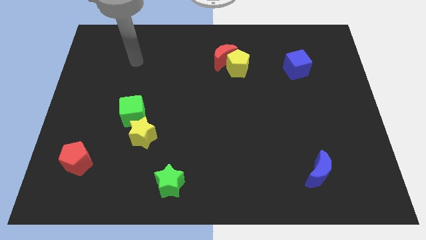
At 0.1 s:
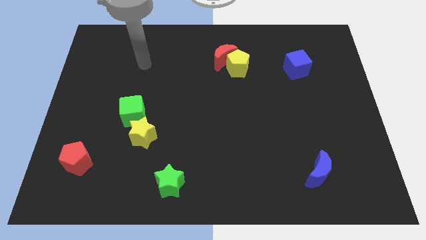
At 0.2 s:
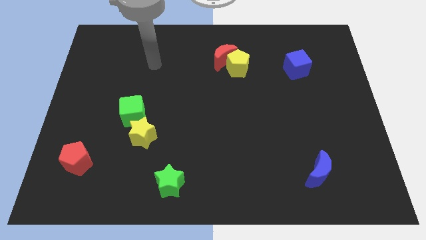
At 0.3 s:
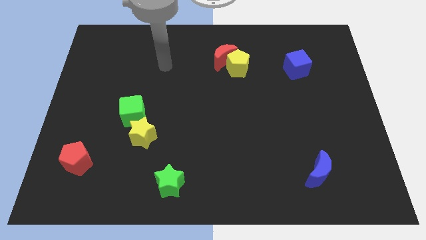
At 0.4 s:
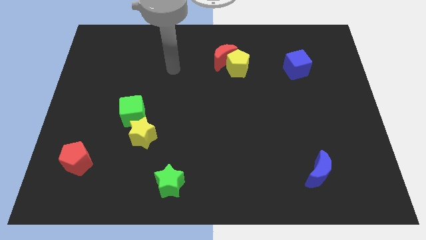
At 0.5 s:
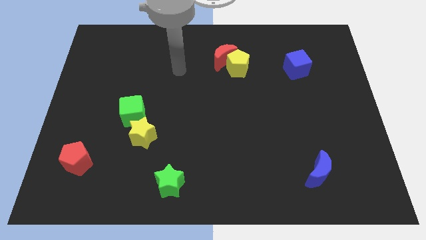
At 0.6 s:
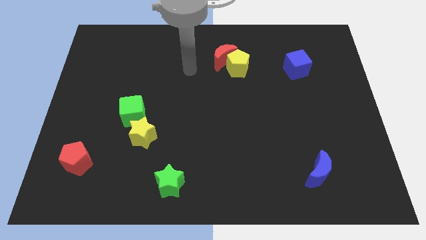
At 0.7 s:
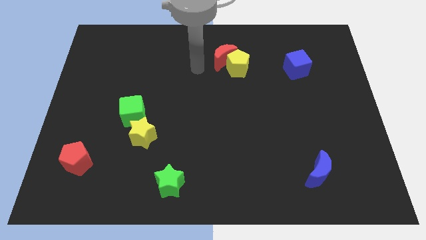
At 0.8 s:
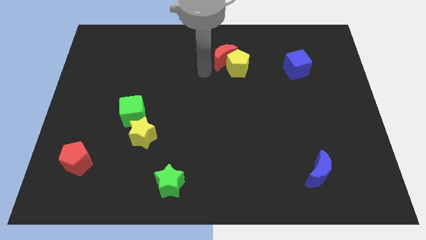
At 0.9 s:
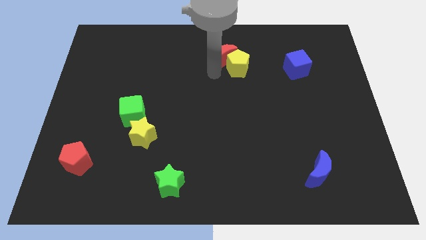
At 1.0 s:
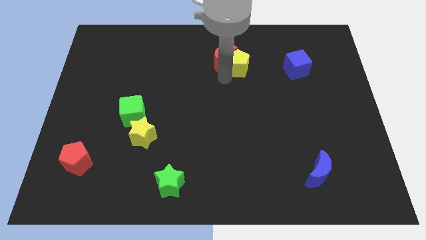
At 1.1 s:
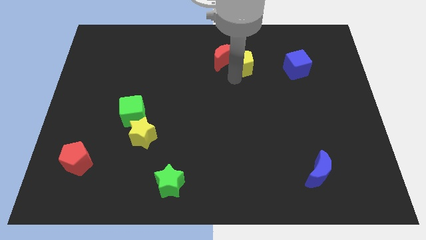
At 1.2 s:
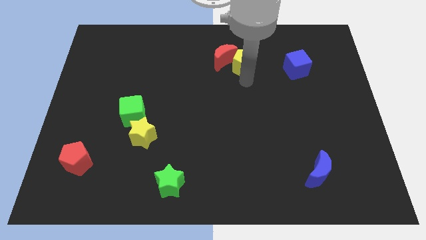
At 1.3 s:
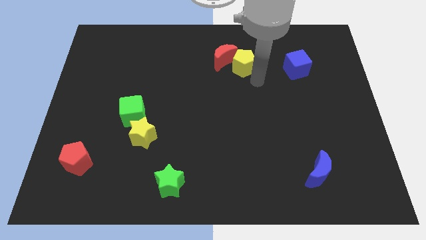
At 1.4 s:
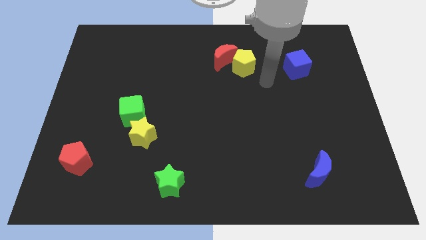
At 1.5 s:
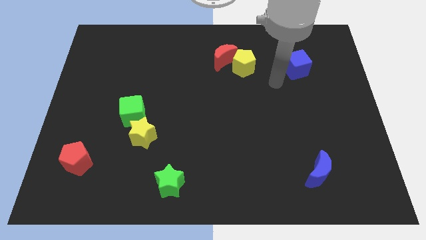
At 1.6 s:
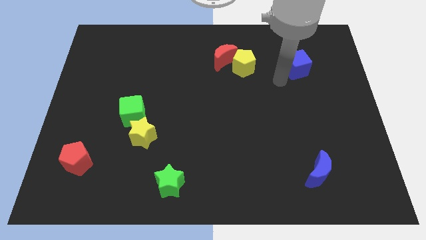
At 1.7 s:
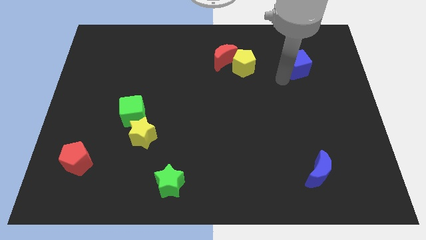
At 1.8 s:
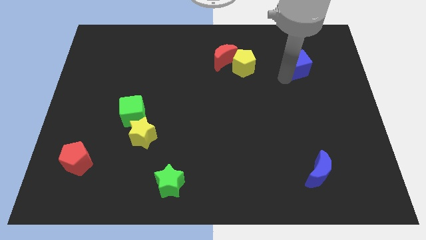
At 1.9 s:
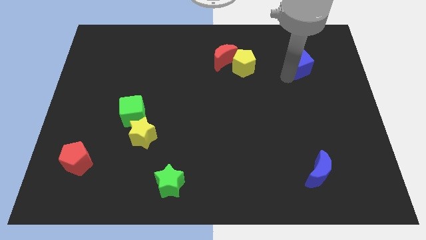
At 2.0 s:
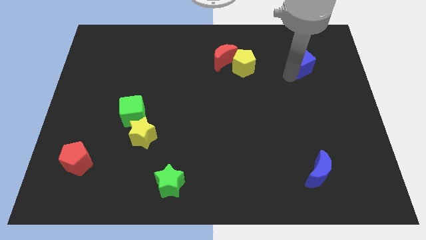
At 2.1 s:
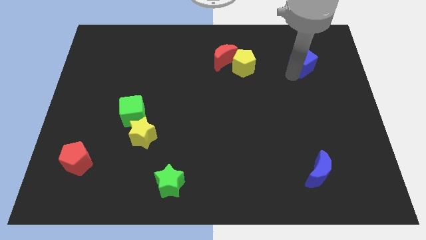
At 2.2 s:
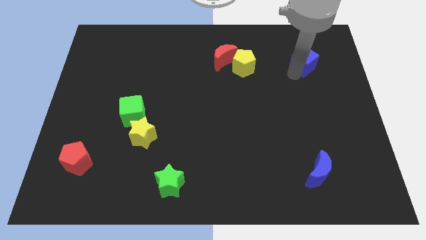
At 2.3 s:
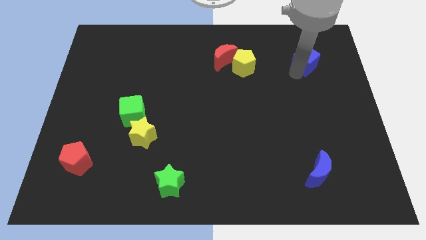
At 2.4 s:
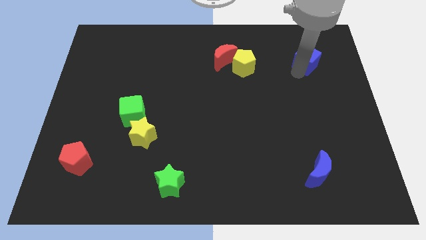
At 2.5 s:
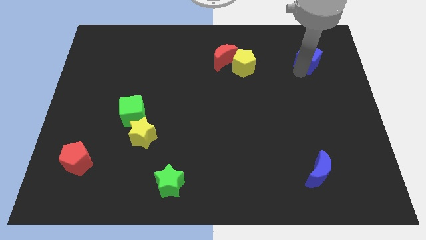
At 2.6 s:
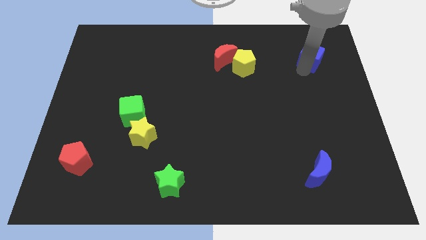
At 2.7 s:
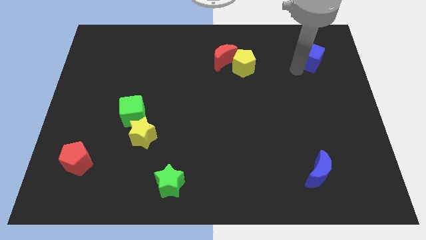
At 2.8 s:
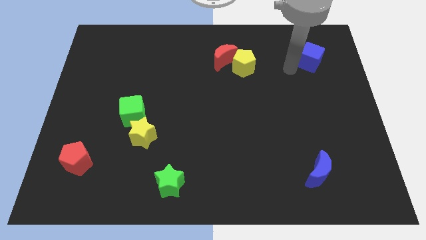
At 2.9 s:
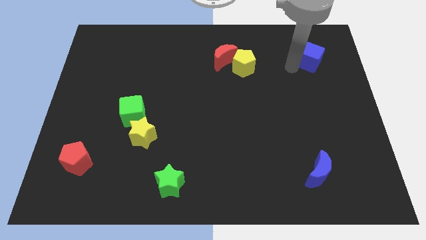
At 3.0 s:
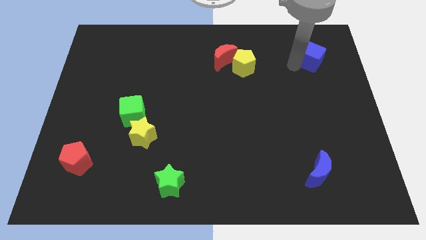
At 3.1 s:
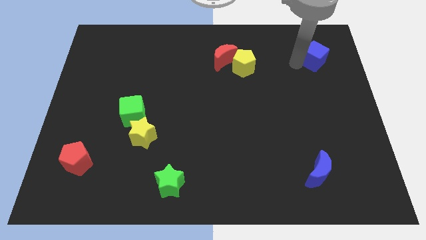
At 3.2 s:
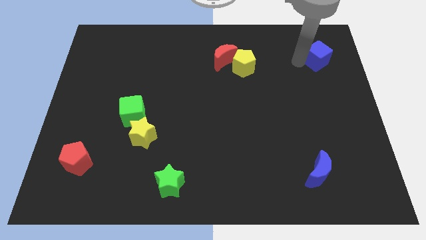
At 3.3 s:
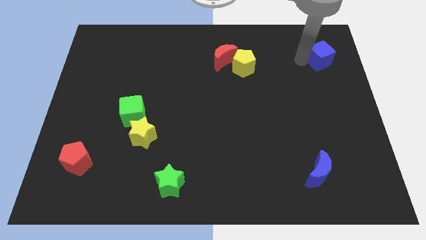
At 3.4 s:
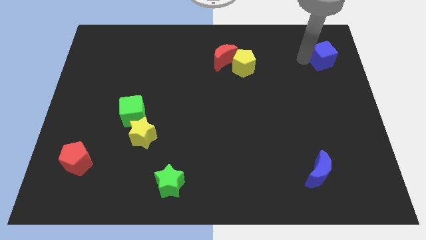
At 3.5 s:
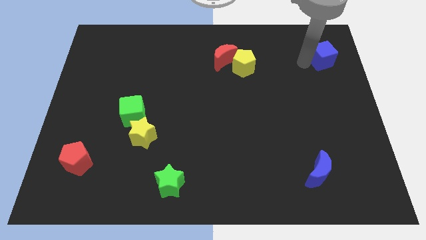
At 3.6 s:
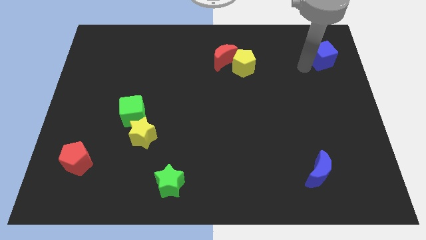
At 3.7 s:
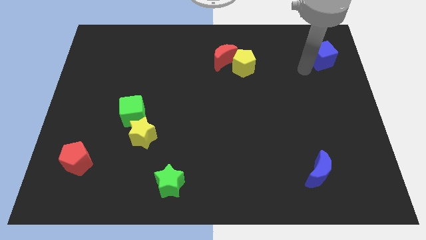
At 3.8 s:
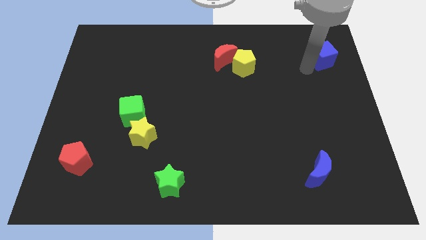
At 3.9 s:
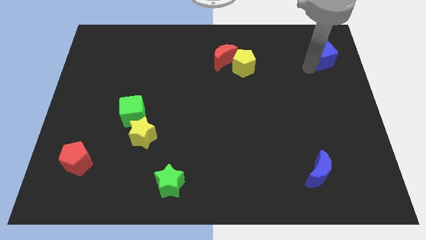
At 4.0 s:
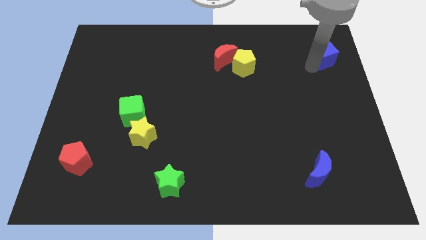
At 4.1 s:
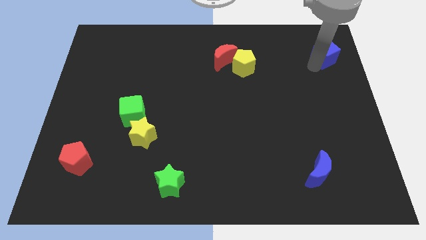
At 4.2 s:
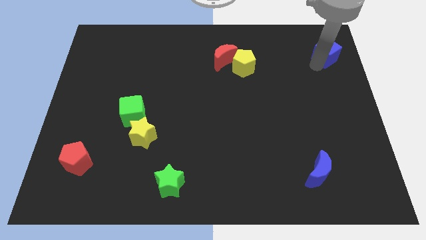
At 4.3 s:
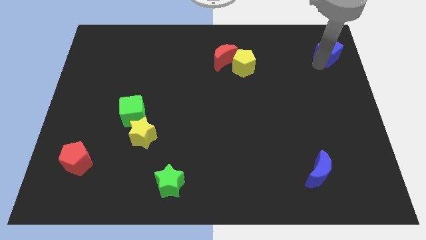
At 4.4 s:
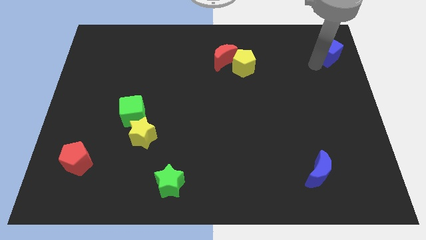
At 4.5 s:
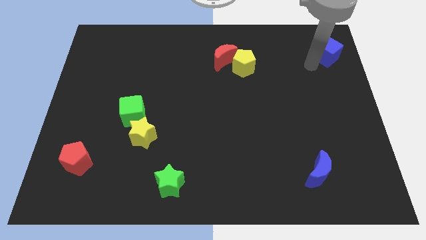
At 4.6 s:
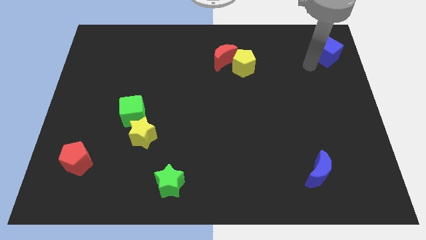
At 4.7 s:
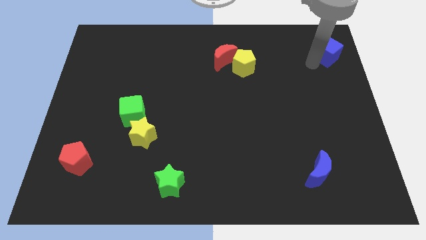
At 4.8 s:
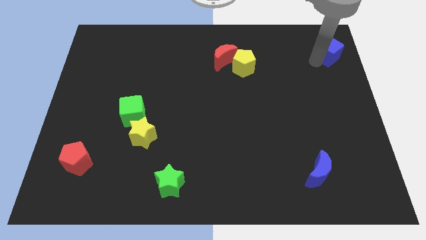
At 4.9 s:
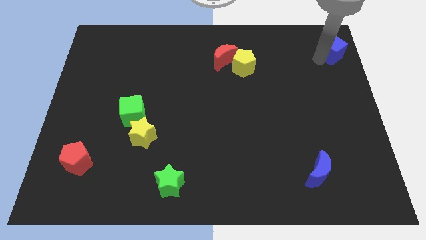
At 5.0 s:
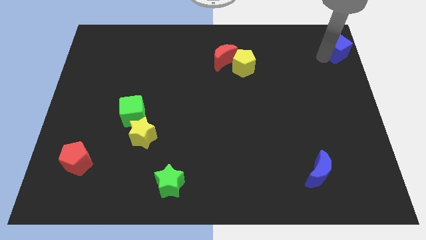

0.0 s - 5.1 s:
push the blue cube to the top right of the board

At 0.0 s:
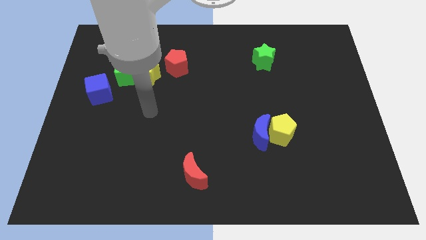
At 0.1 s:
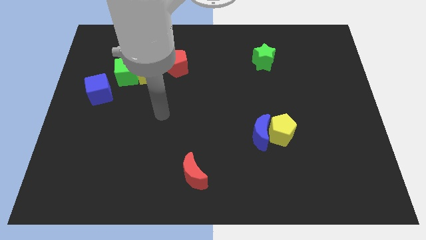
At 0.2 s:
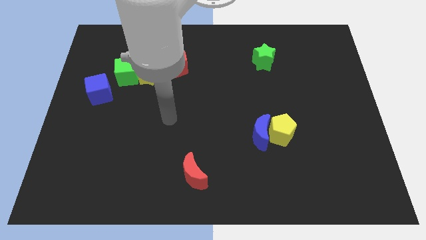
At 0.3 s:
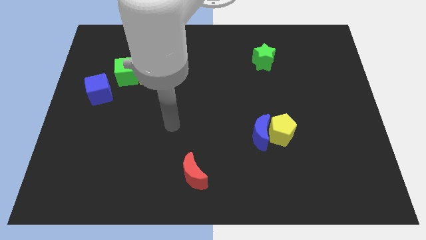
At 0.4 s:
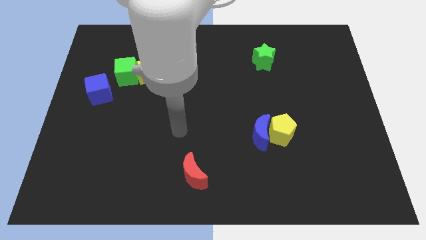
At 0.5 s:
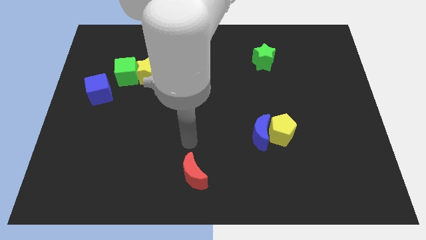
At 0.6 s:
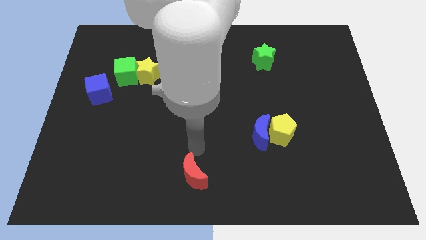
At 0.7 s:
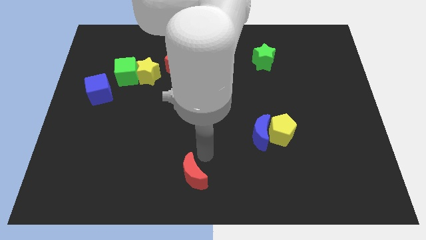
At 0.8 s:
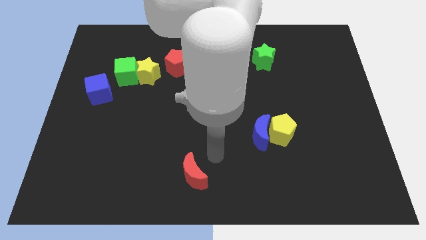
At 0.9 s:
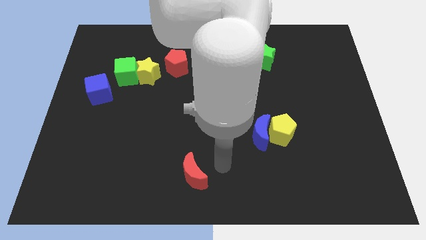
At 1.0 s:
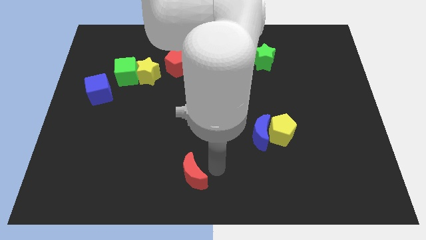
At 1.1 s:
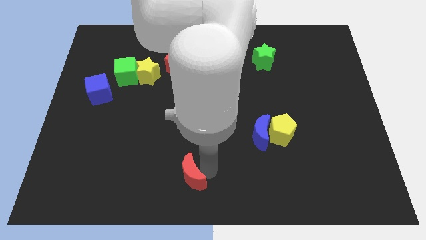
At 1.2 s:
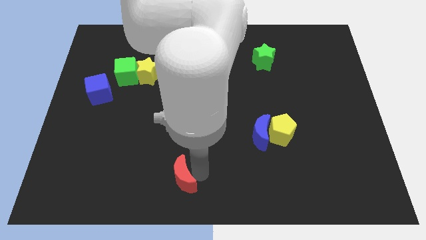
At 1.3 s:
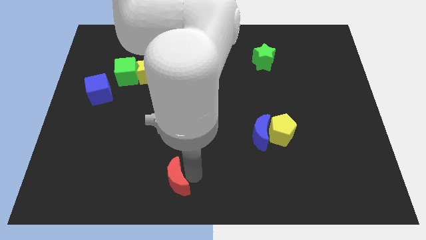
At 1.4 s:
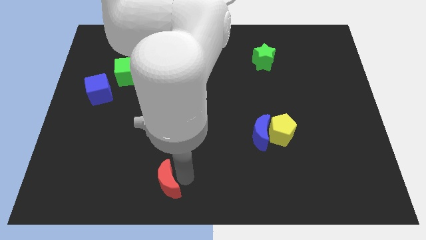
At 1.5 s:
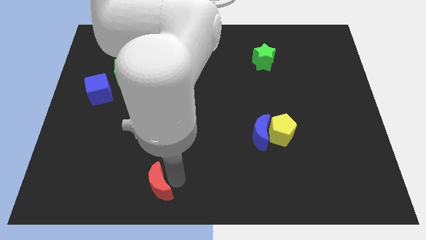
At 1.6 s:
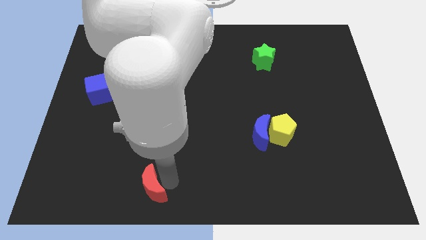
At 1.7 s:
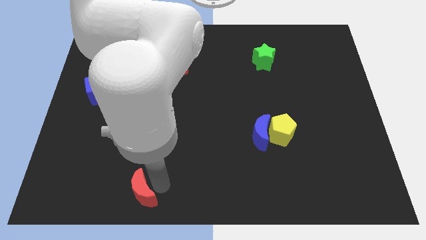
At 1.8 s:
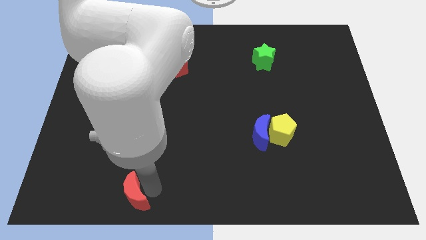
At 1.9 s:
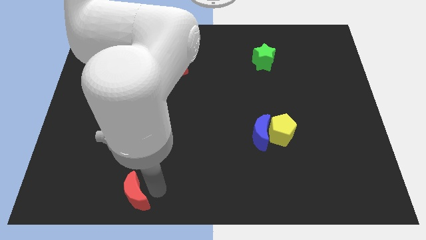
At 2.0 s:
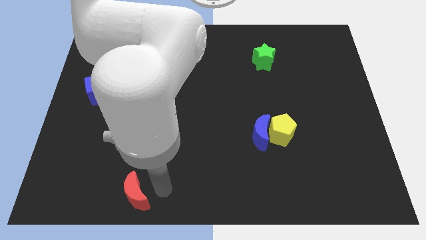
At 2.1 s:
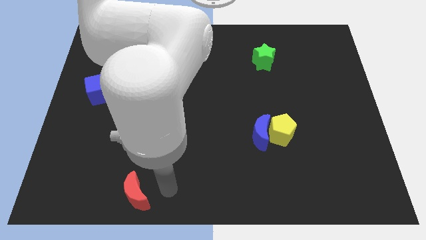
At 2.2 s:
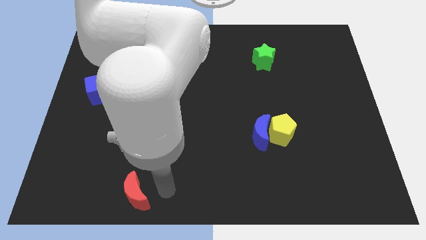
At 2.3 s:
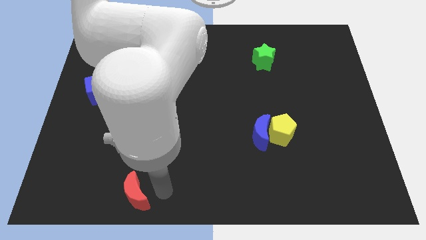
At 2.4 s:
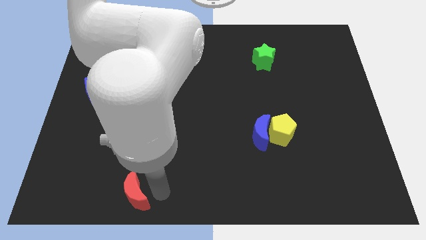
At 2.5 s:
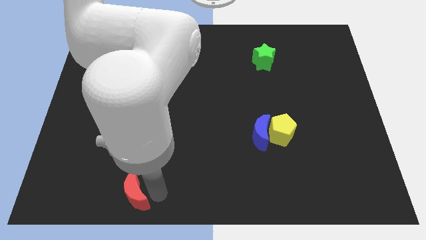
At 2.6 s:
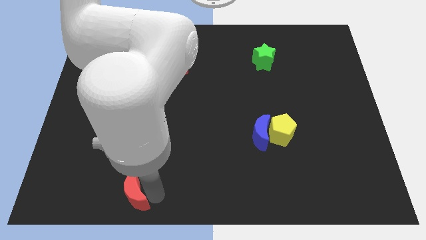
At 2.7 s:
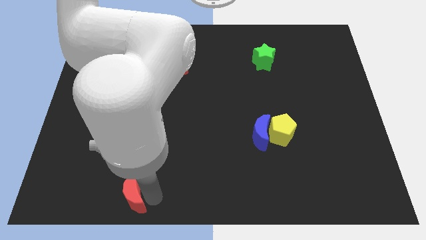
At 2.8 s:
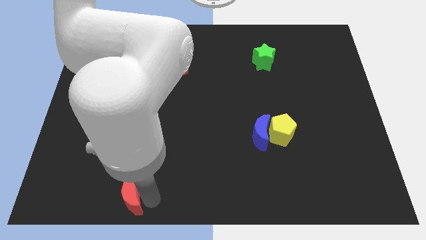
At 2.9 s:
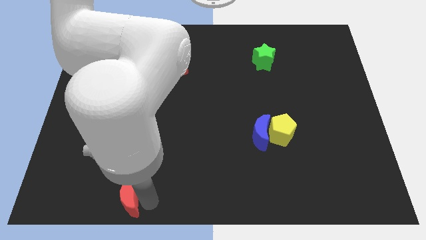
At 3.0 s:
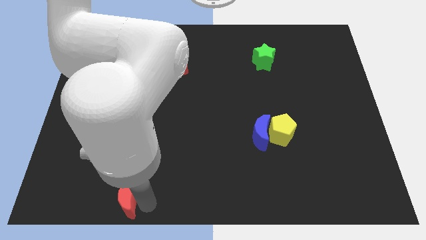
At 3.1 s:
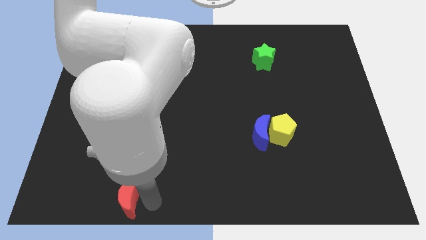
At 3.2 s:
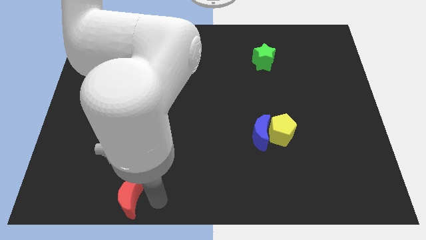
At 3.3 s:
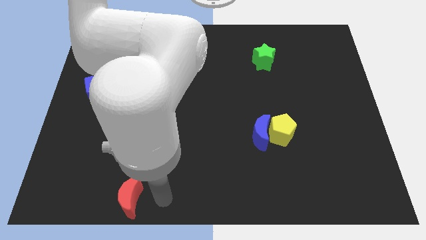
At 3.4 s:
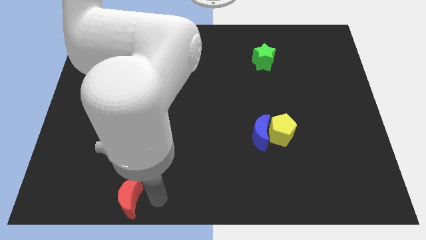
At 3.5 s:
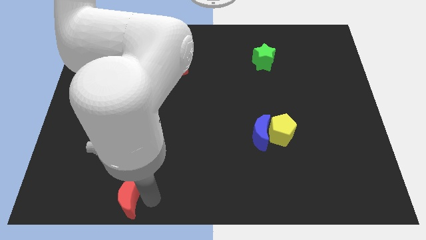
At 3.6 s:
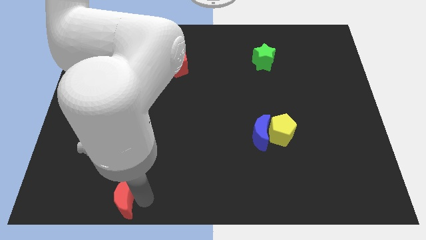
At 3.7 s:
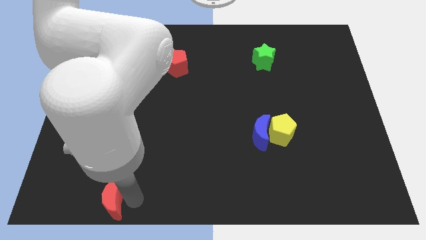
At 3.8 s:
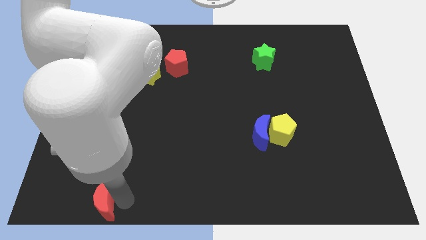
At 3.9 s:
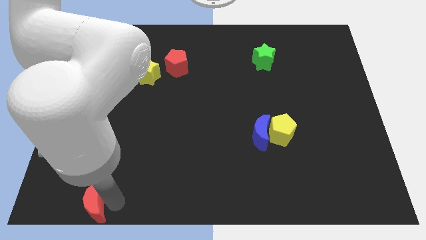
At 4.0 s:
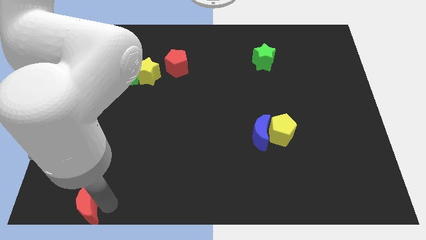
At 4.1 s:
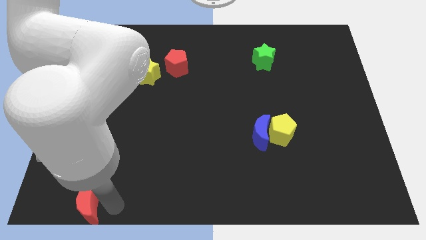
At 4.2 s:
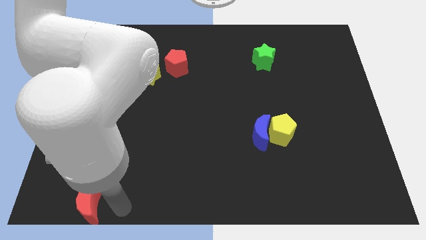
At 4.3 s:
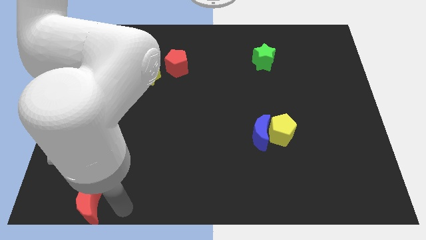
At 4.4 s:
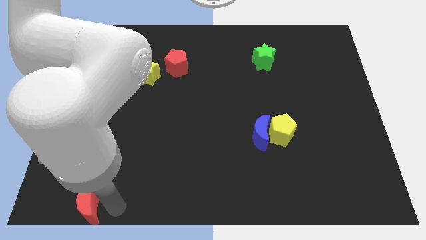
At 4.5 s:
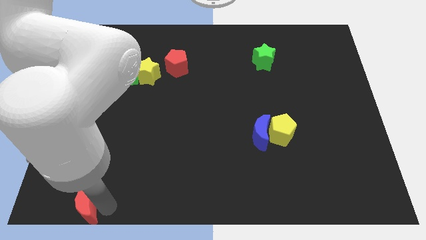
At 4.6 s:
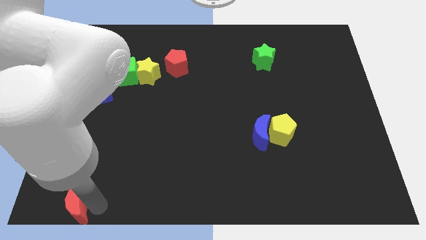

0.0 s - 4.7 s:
move the red moon to the bottom left corner
